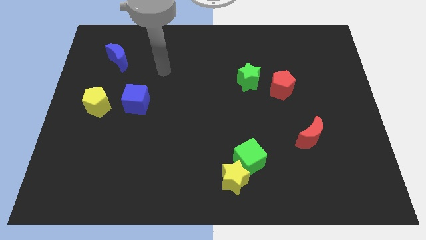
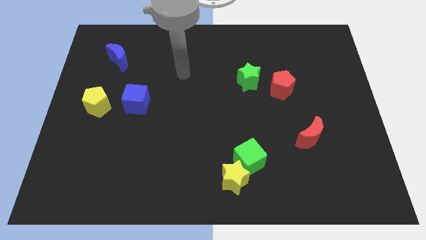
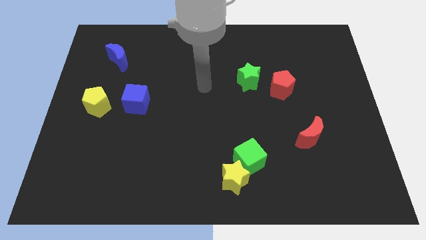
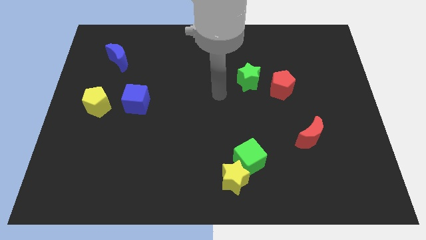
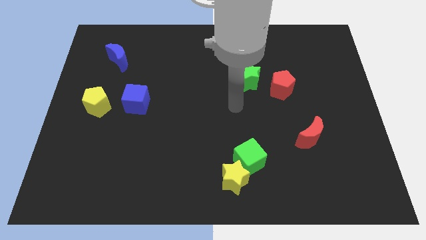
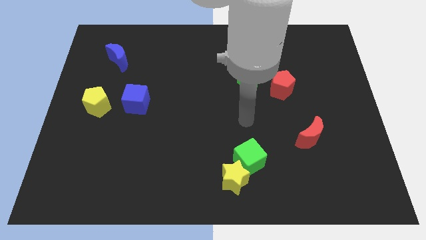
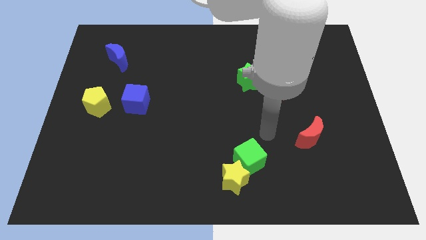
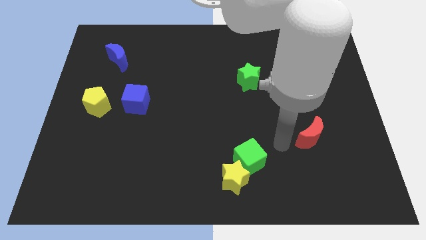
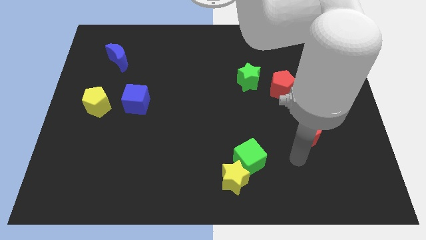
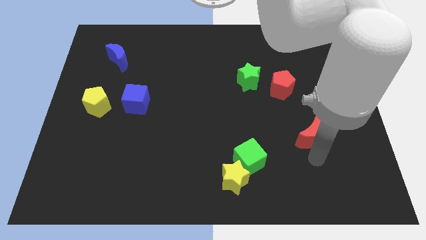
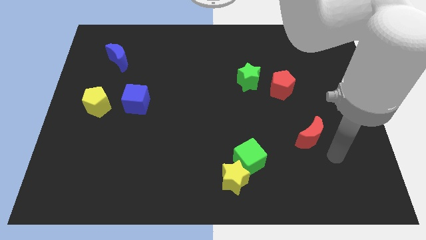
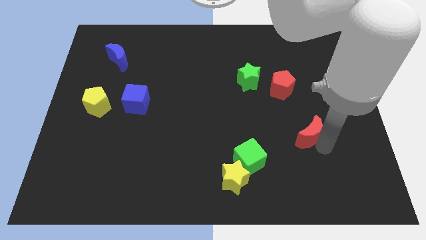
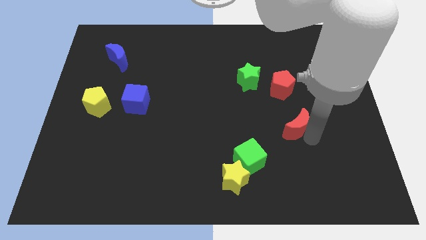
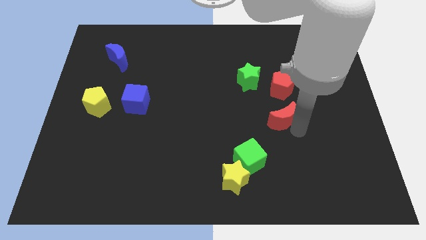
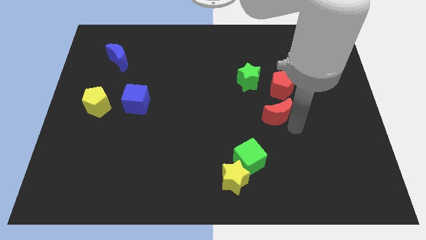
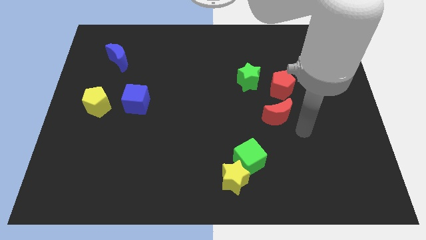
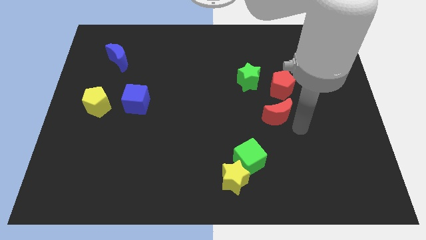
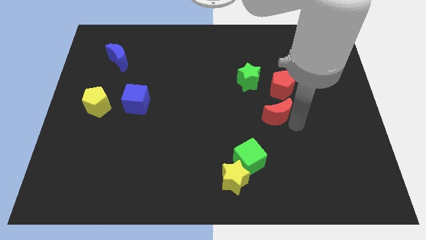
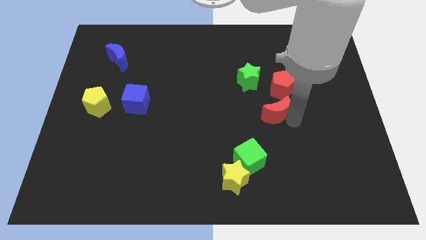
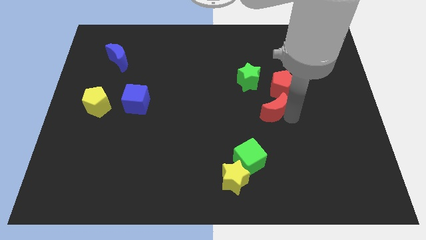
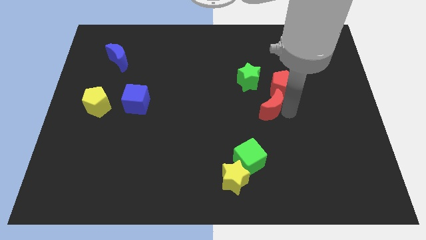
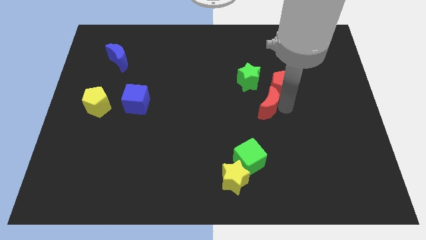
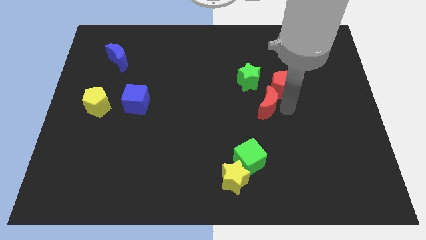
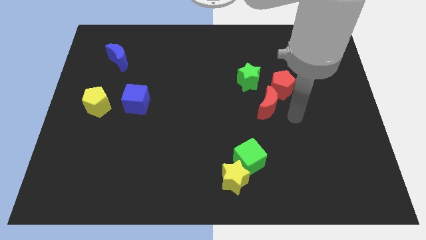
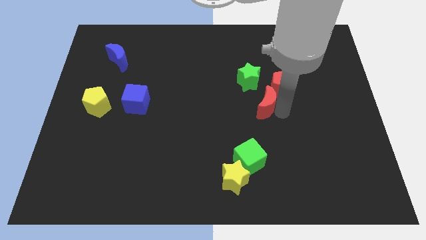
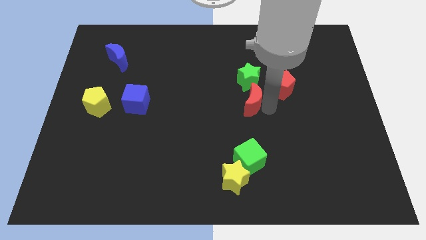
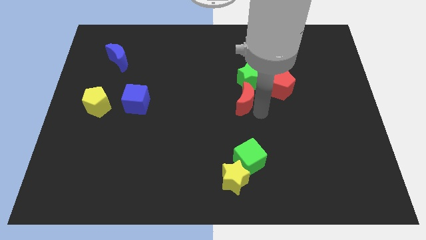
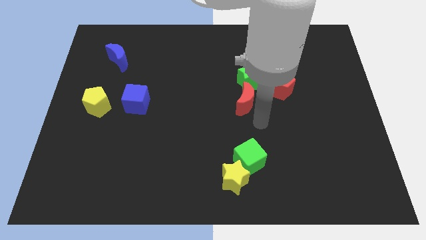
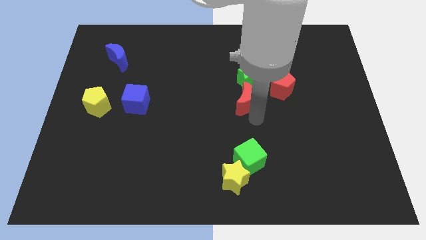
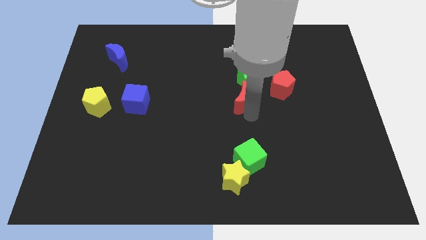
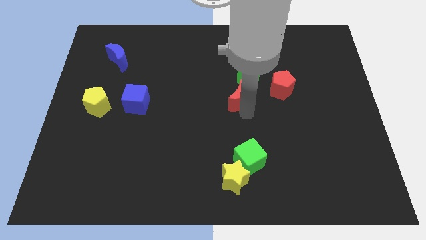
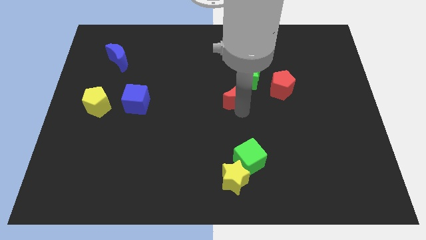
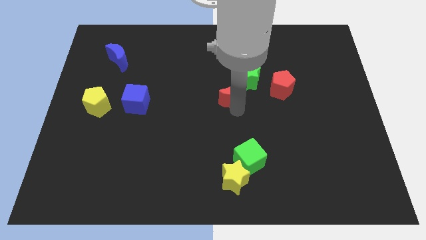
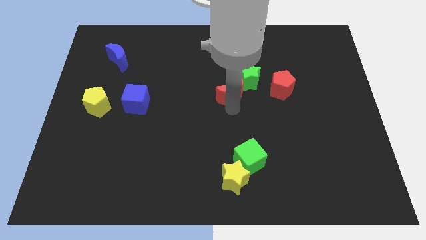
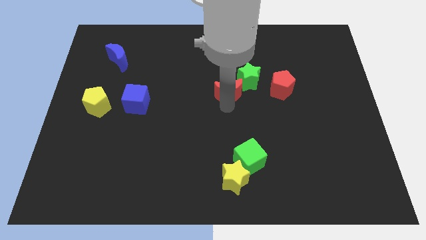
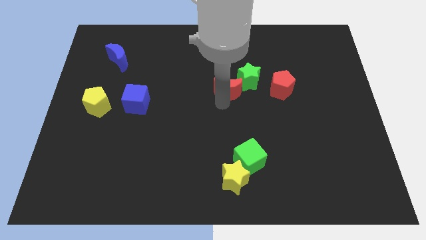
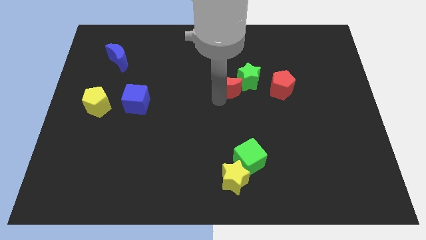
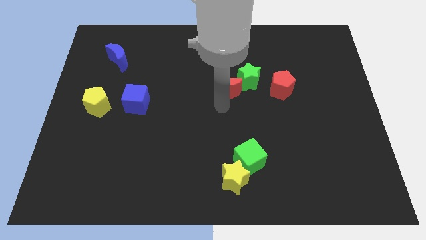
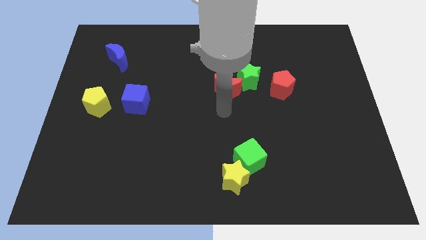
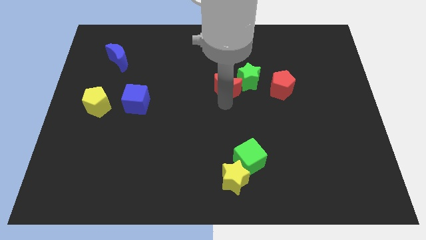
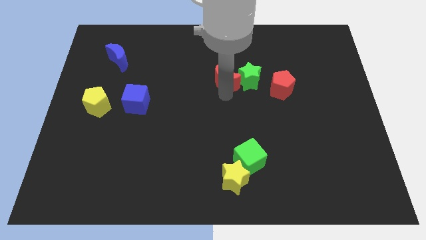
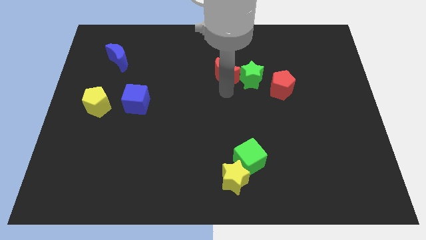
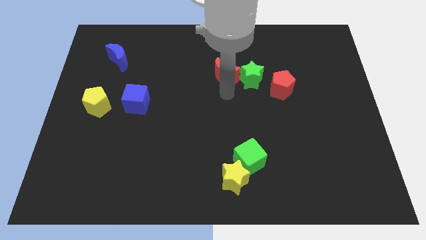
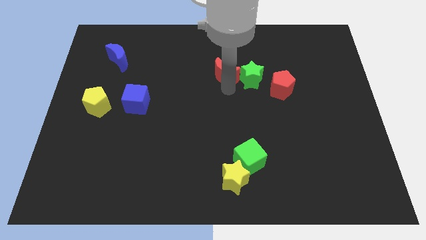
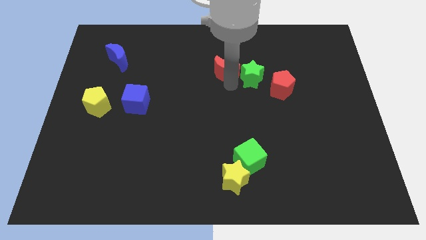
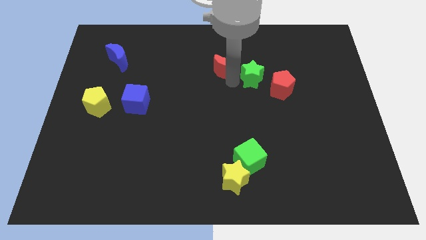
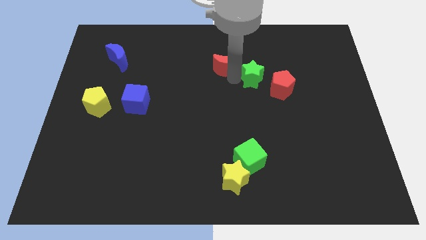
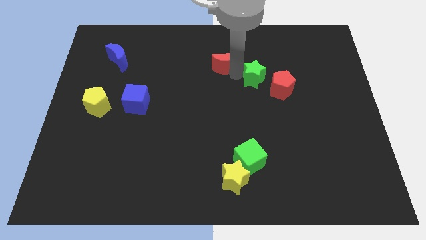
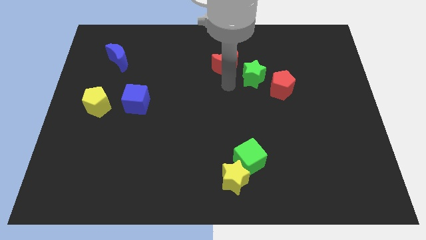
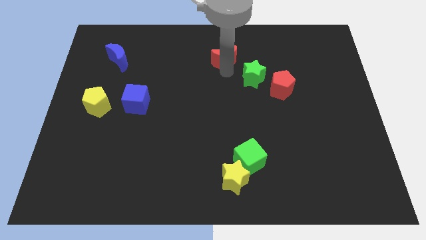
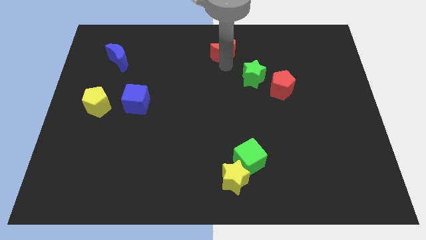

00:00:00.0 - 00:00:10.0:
move the red moon to the top

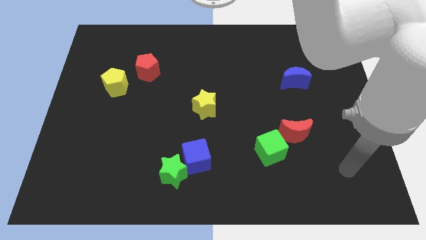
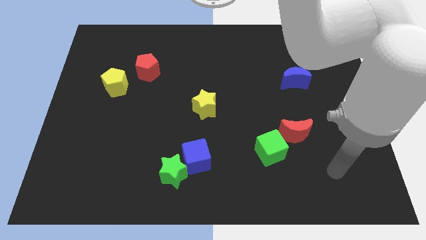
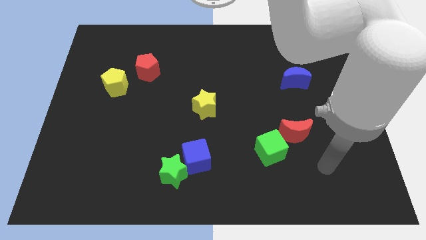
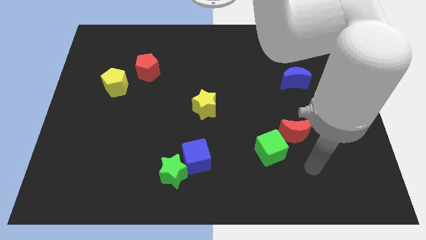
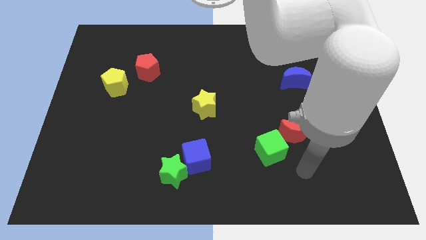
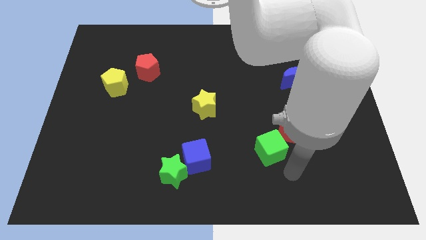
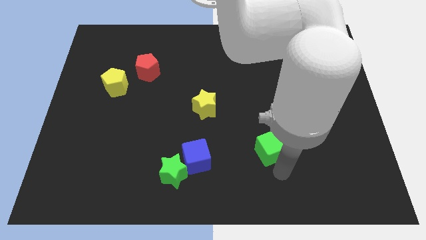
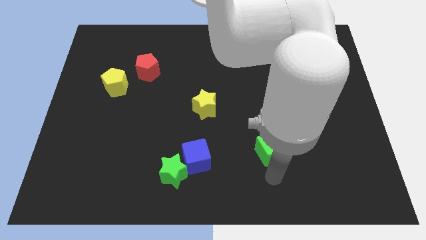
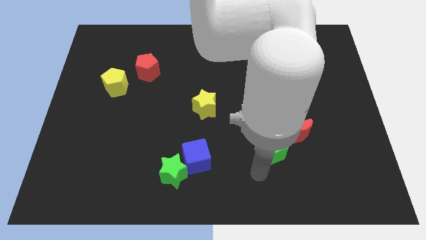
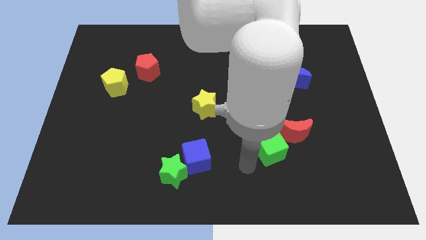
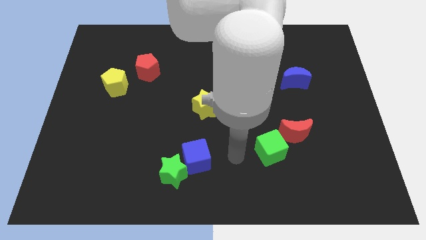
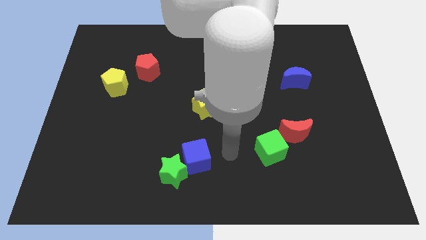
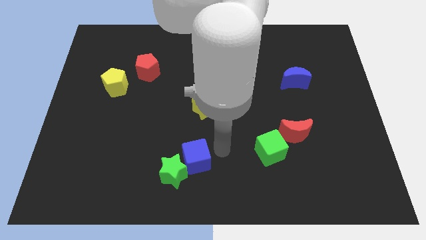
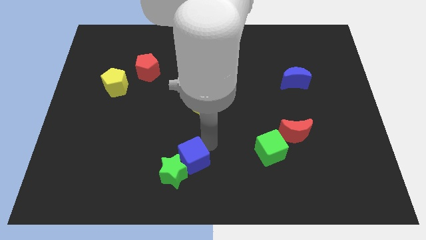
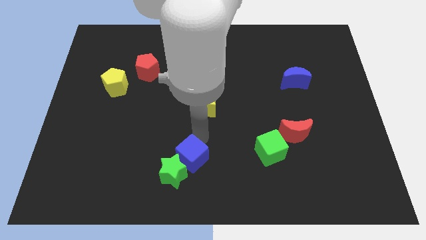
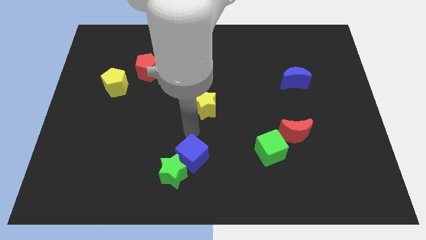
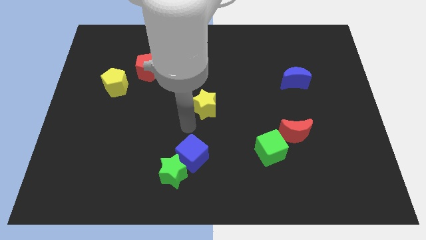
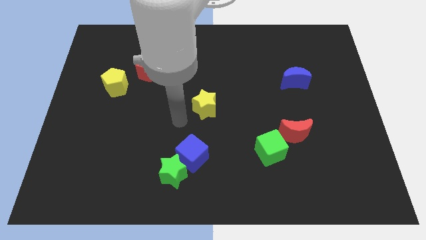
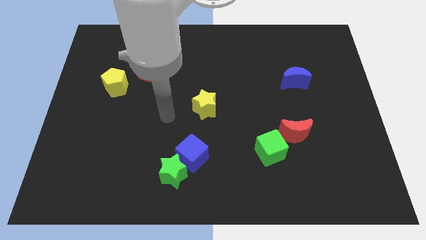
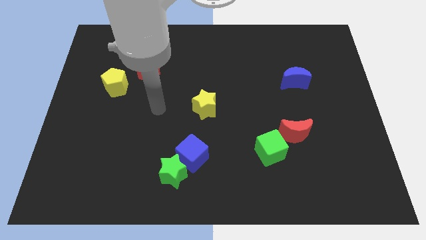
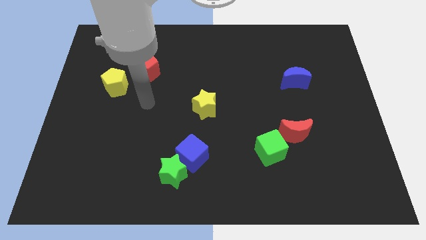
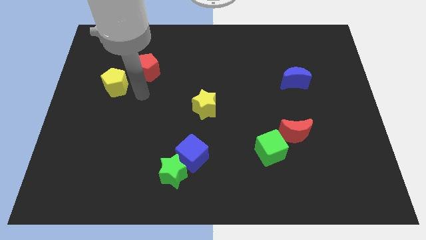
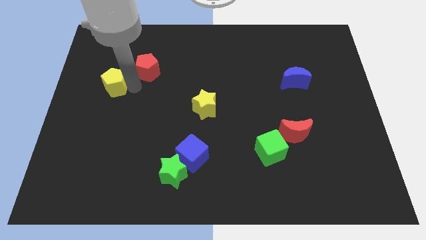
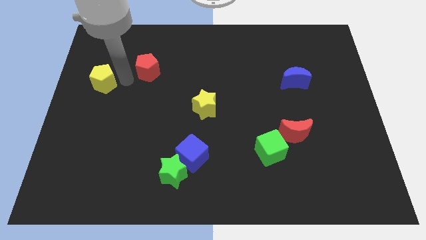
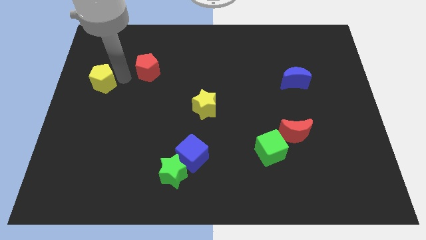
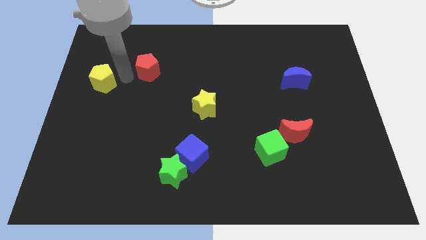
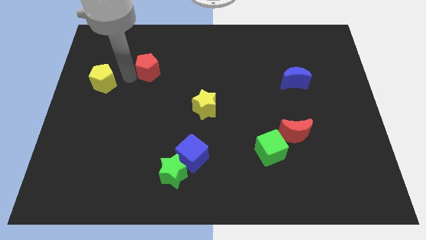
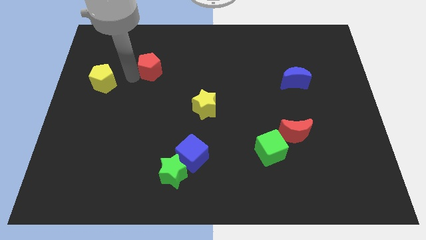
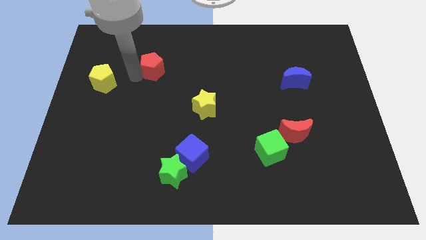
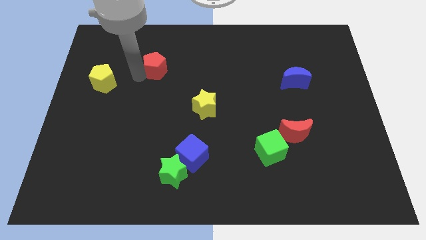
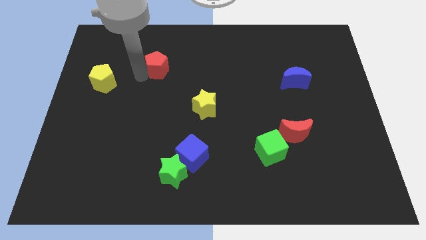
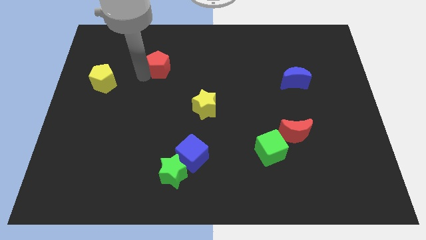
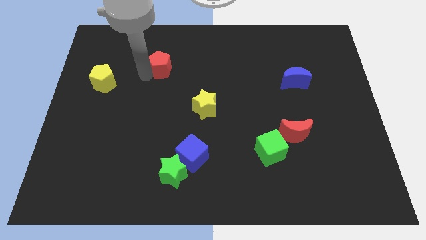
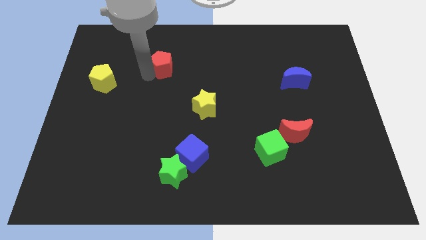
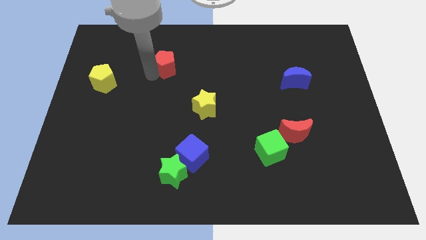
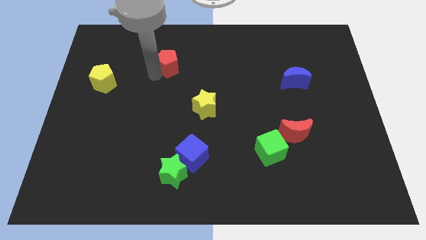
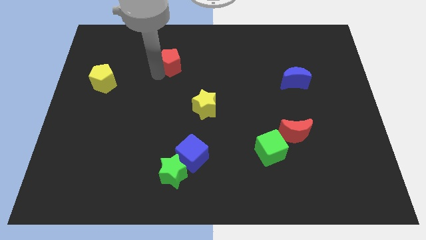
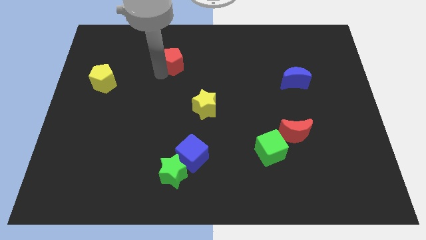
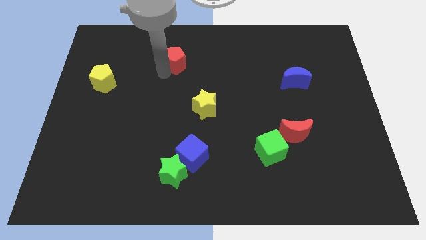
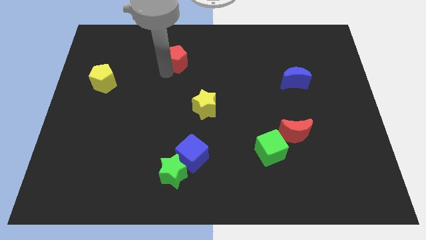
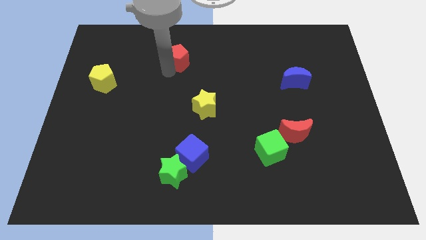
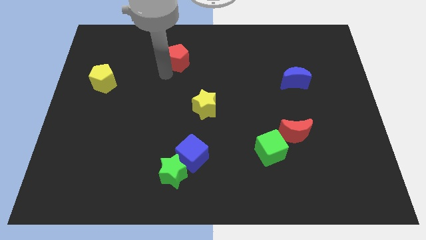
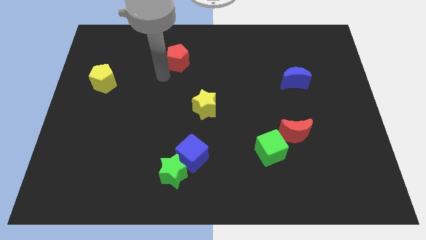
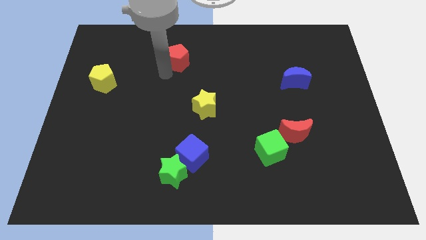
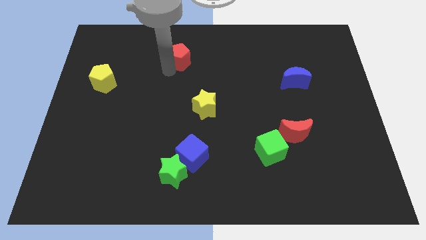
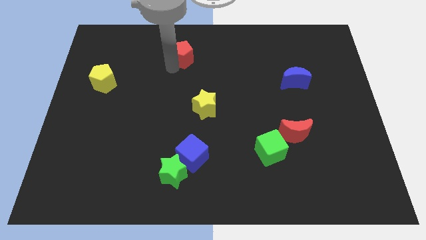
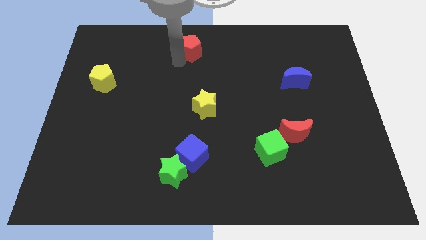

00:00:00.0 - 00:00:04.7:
push the red pentagon to the top side
